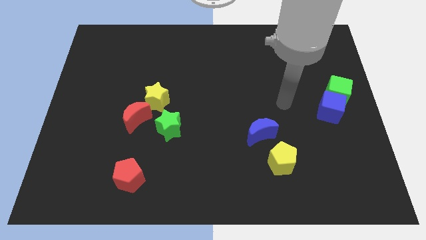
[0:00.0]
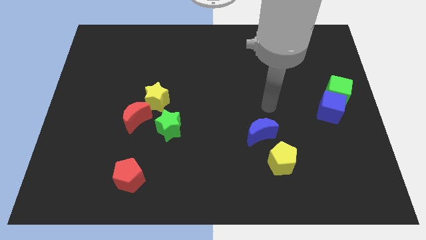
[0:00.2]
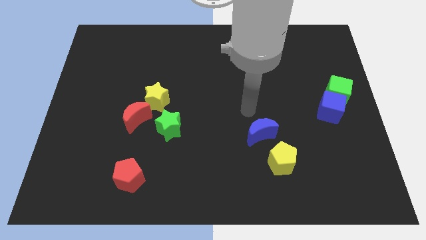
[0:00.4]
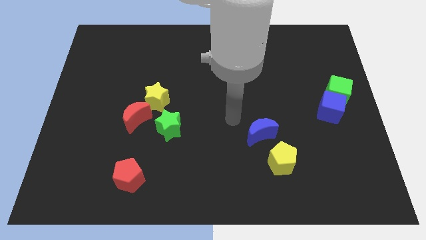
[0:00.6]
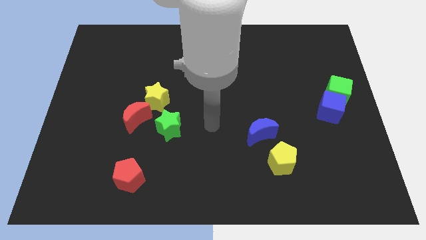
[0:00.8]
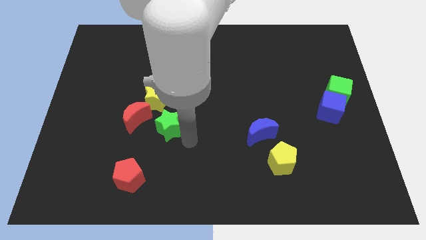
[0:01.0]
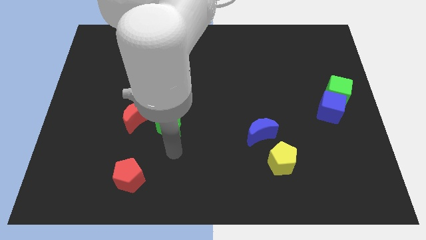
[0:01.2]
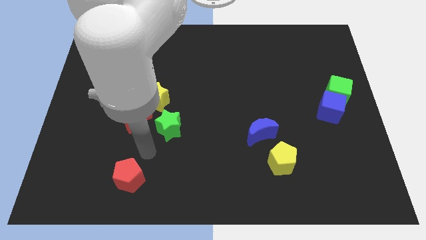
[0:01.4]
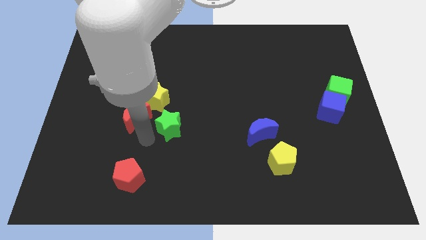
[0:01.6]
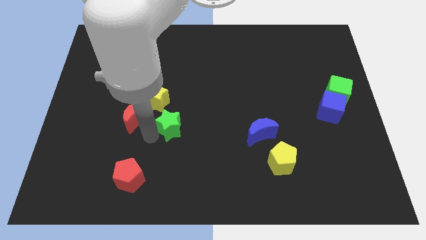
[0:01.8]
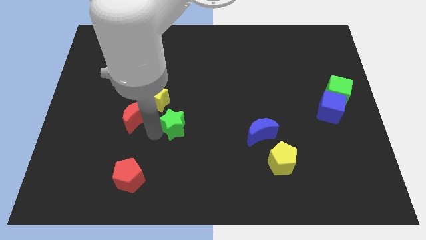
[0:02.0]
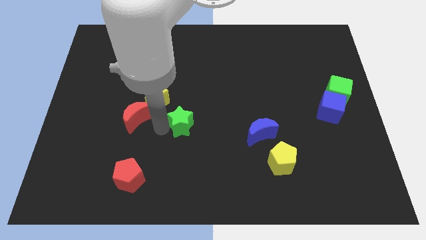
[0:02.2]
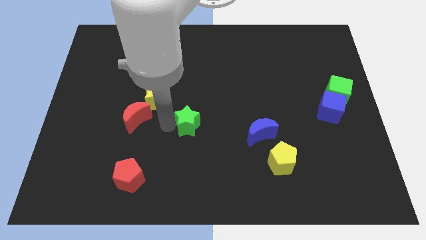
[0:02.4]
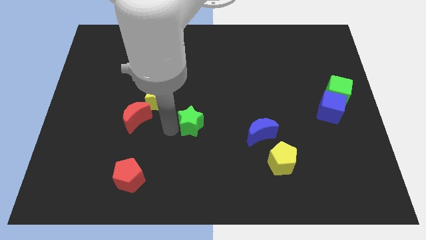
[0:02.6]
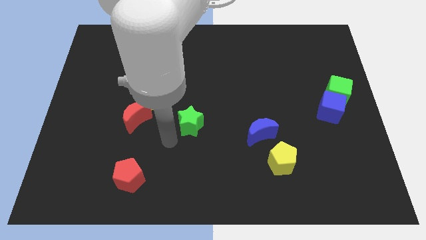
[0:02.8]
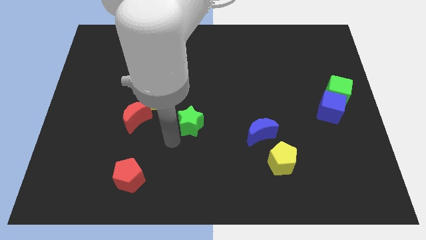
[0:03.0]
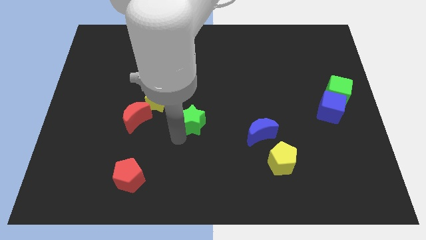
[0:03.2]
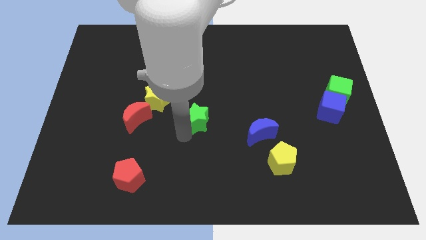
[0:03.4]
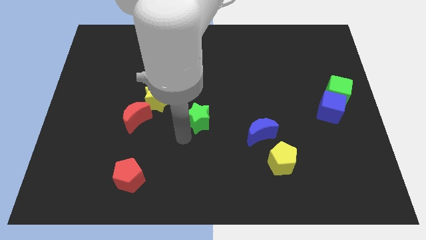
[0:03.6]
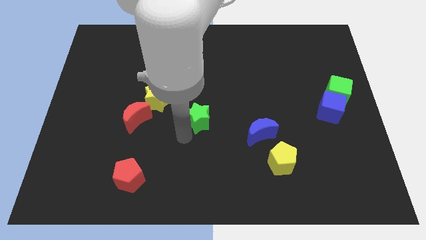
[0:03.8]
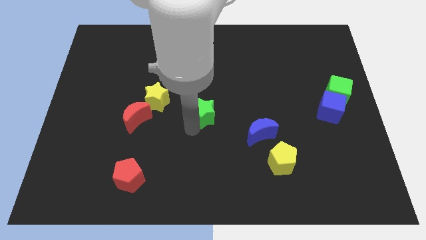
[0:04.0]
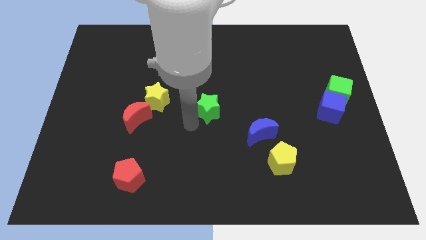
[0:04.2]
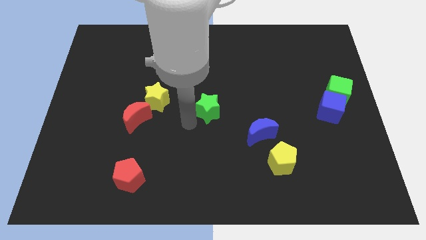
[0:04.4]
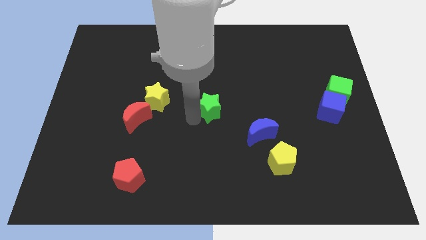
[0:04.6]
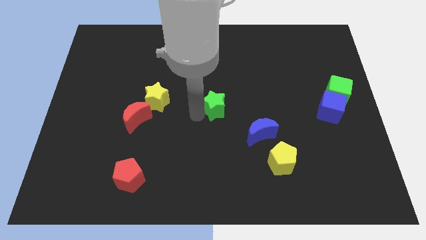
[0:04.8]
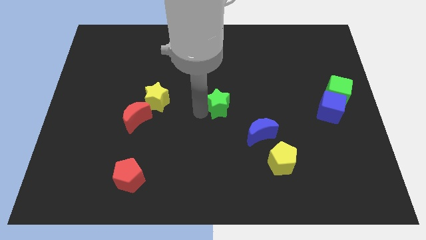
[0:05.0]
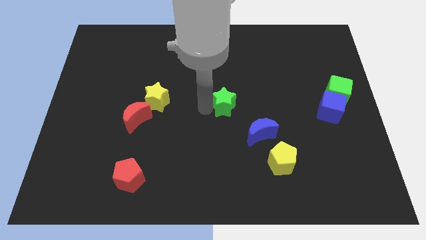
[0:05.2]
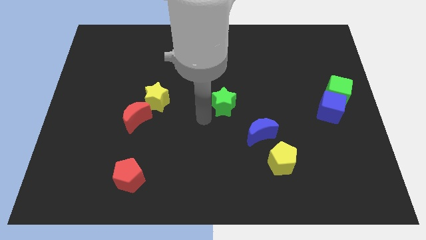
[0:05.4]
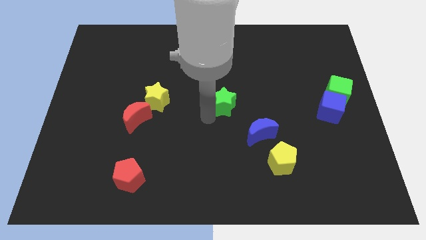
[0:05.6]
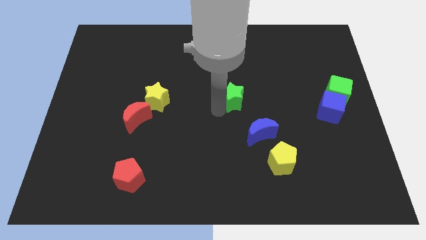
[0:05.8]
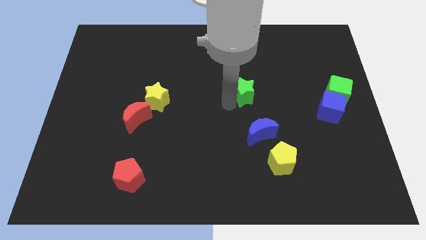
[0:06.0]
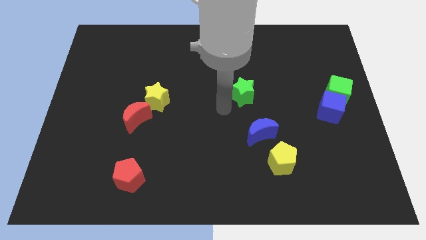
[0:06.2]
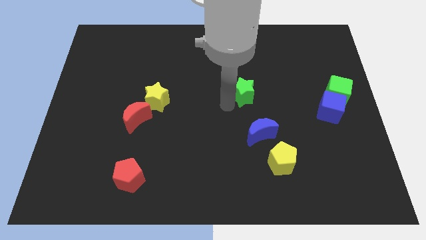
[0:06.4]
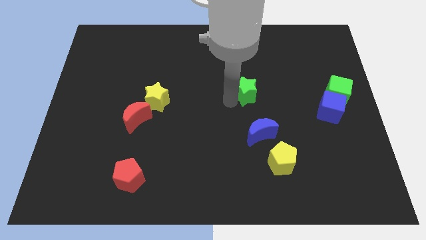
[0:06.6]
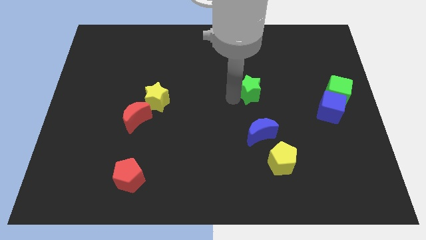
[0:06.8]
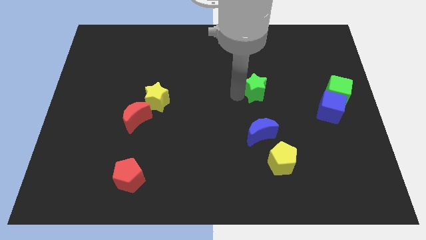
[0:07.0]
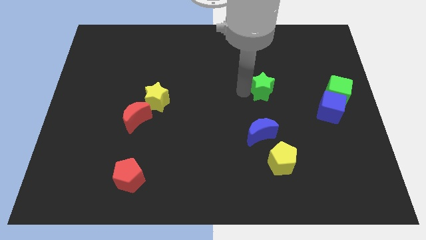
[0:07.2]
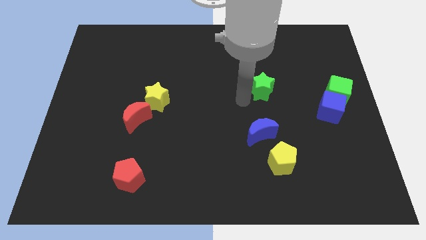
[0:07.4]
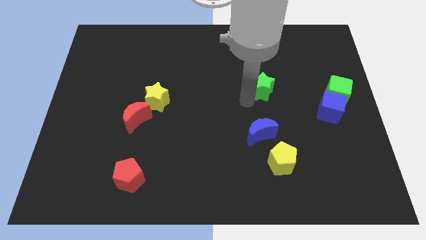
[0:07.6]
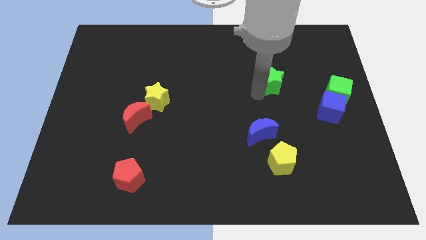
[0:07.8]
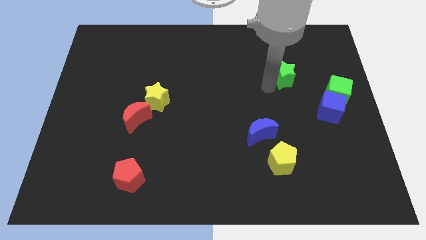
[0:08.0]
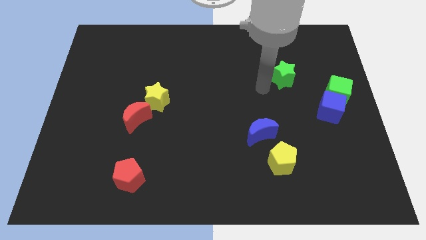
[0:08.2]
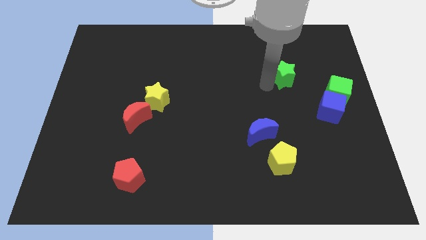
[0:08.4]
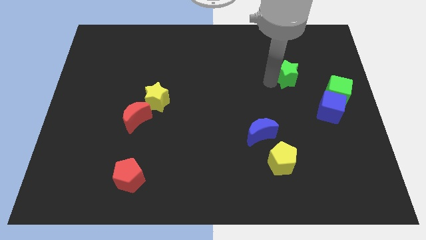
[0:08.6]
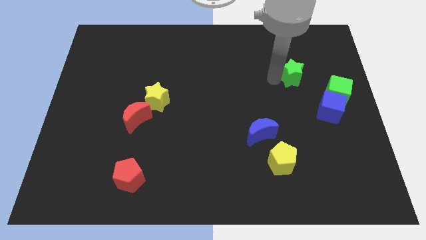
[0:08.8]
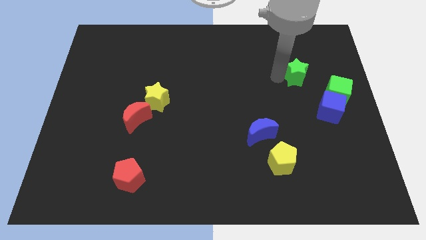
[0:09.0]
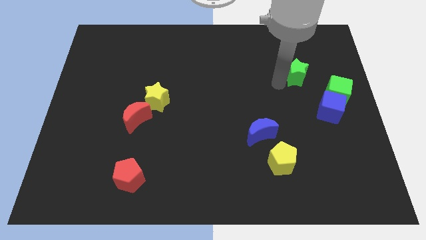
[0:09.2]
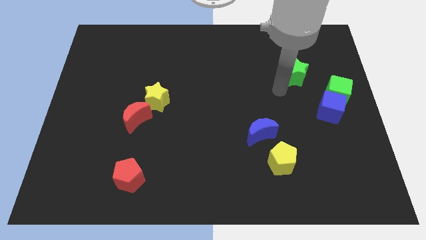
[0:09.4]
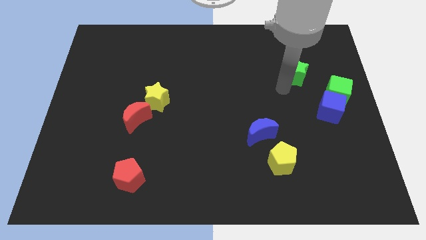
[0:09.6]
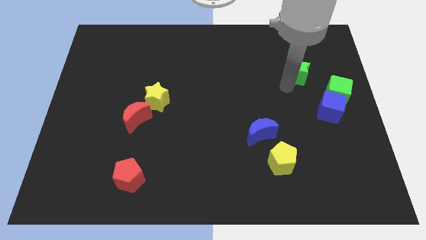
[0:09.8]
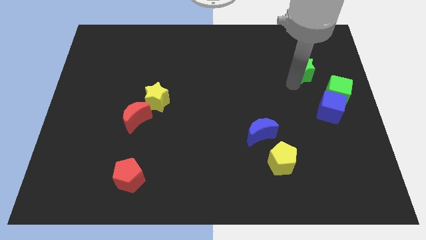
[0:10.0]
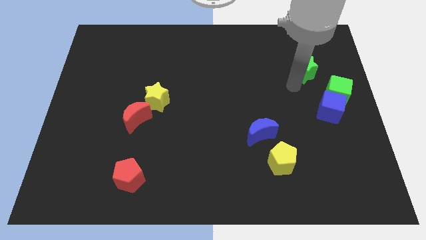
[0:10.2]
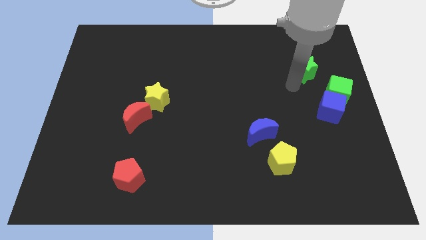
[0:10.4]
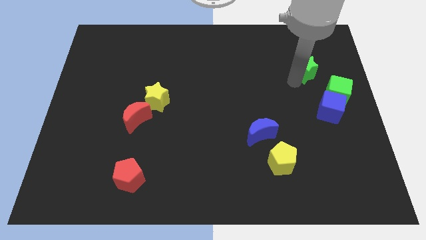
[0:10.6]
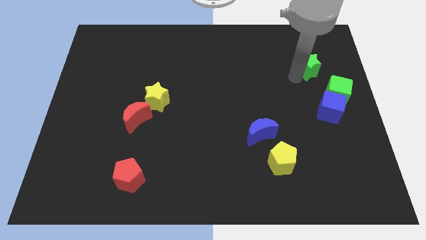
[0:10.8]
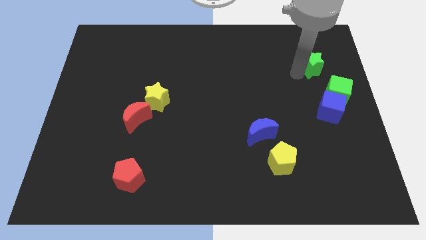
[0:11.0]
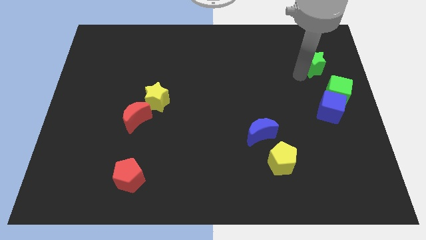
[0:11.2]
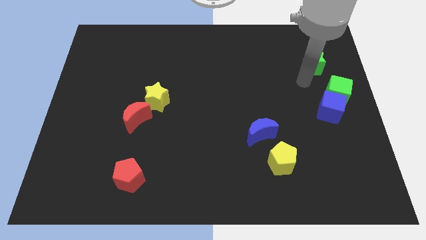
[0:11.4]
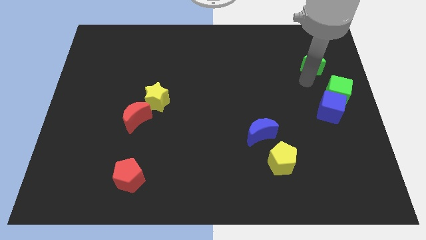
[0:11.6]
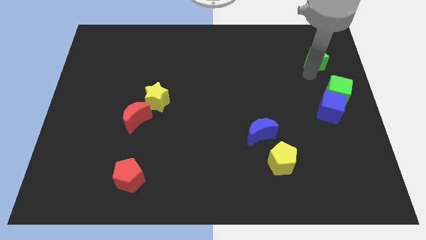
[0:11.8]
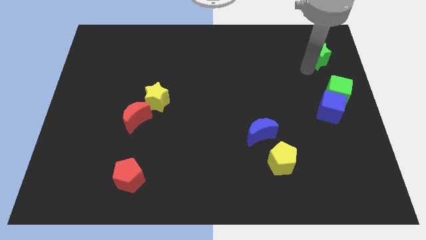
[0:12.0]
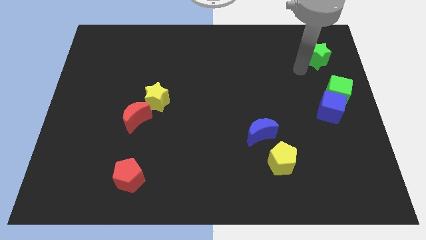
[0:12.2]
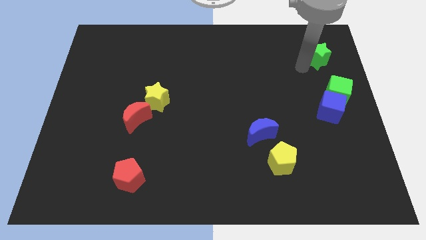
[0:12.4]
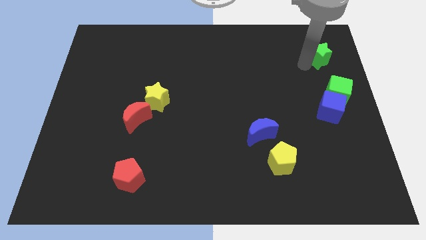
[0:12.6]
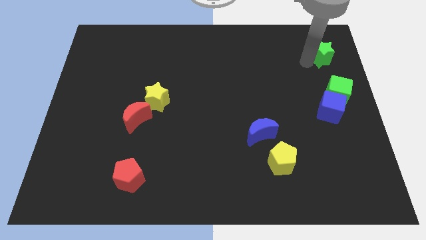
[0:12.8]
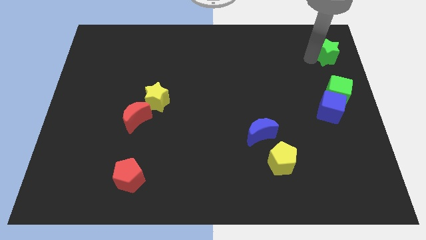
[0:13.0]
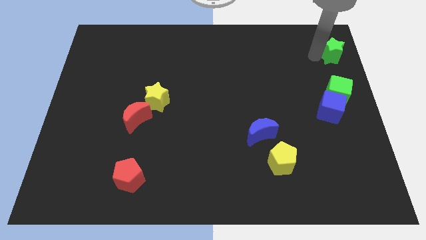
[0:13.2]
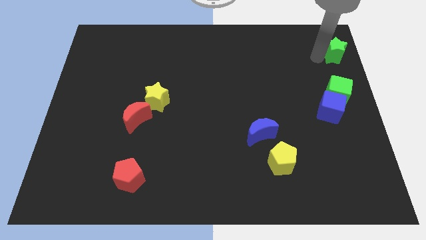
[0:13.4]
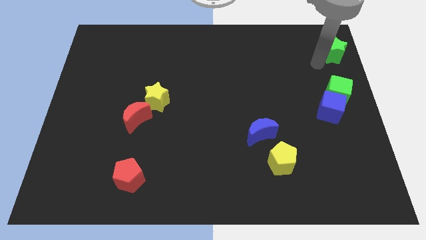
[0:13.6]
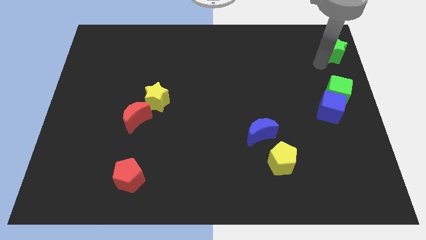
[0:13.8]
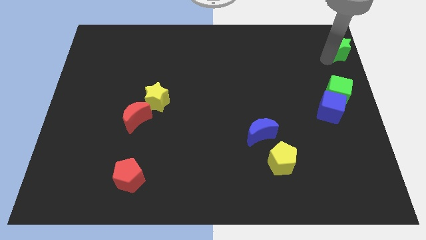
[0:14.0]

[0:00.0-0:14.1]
move the green star to the top right
